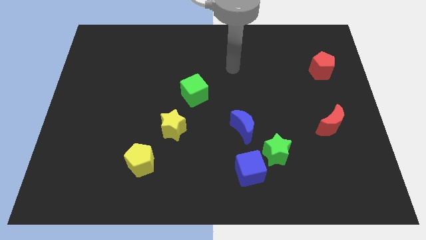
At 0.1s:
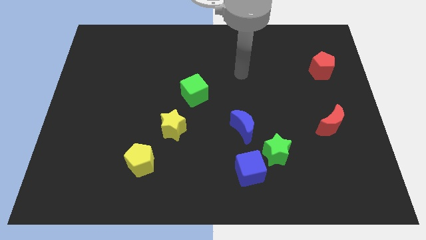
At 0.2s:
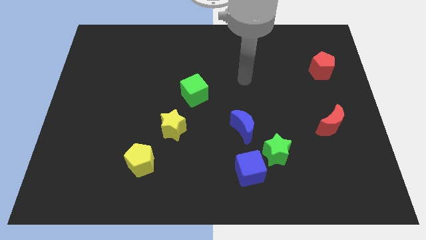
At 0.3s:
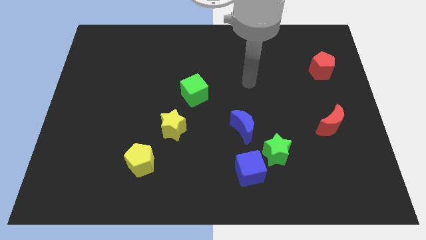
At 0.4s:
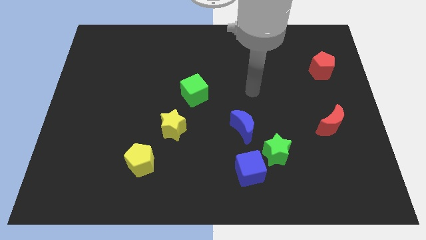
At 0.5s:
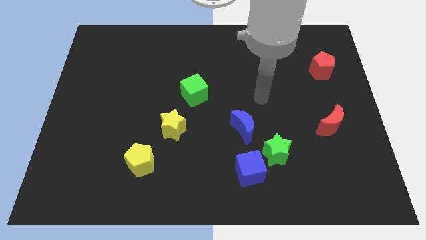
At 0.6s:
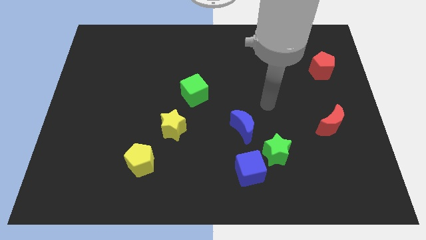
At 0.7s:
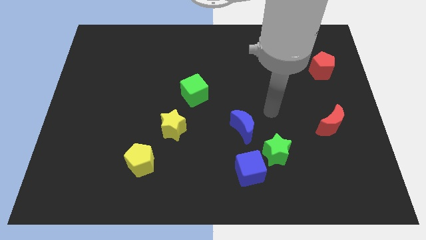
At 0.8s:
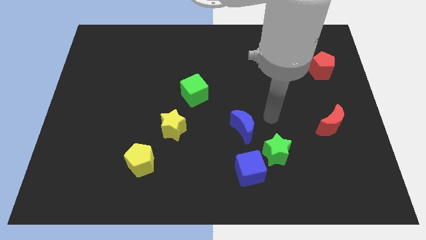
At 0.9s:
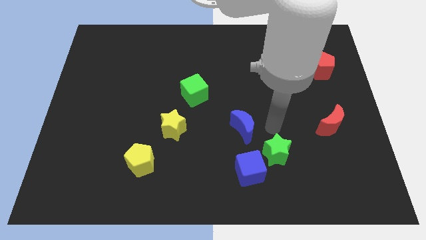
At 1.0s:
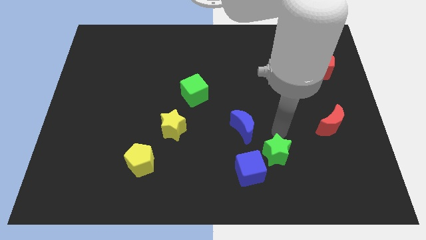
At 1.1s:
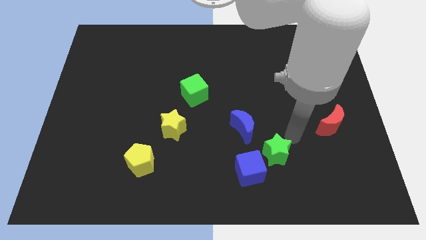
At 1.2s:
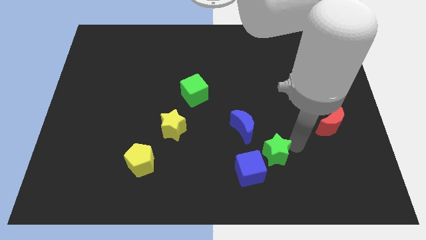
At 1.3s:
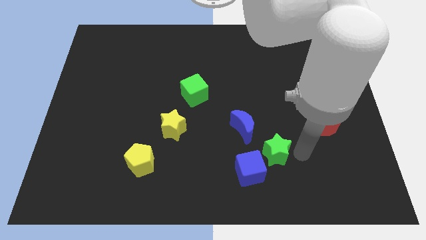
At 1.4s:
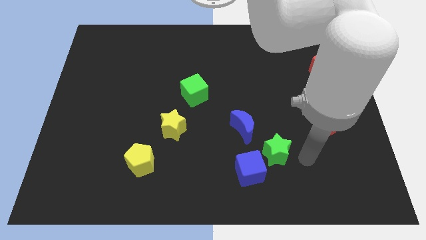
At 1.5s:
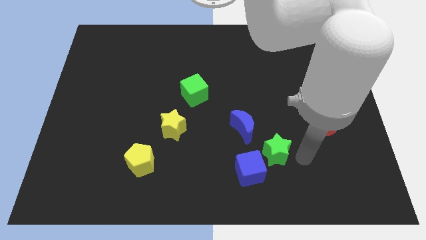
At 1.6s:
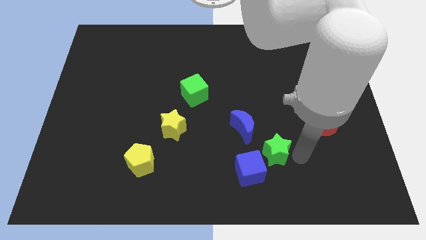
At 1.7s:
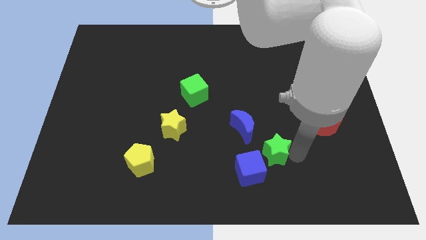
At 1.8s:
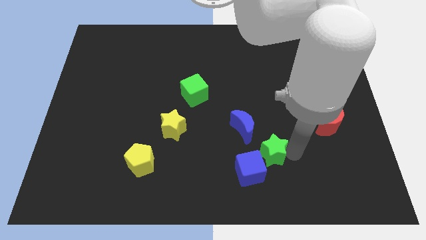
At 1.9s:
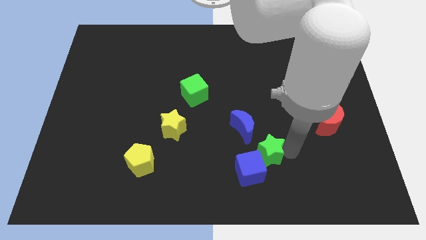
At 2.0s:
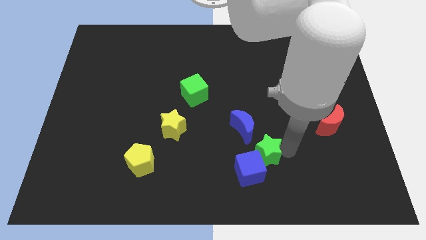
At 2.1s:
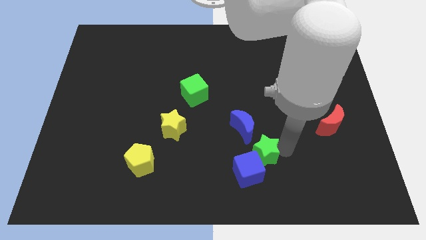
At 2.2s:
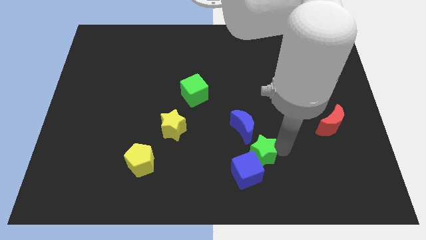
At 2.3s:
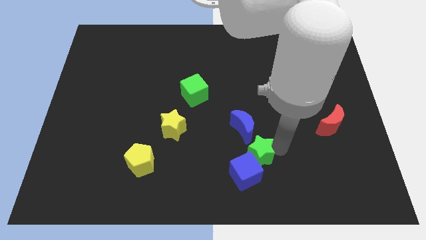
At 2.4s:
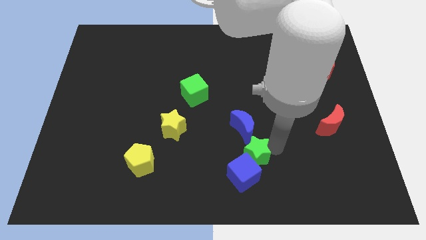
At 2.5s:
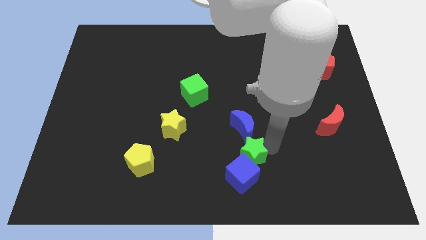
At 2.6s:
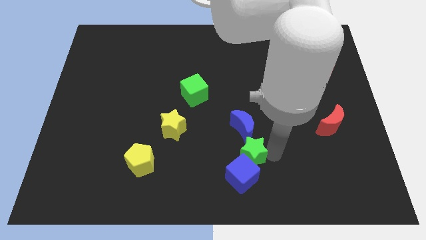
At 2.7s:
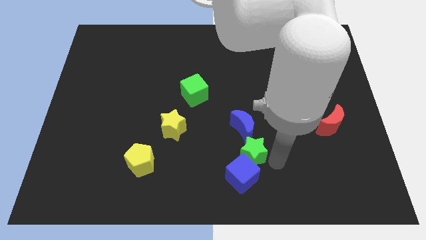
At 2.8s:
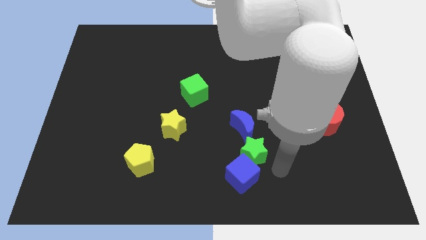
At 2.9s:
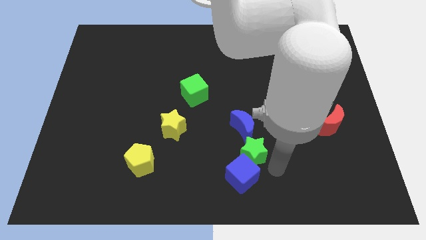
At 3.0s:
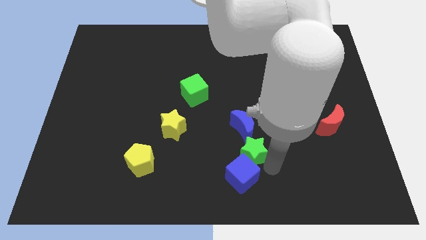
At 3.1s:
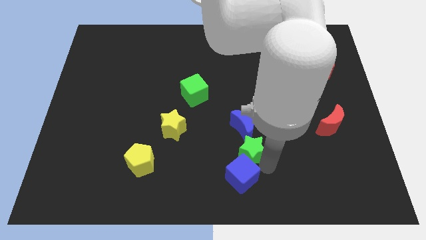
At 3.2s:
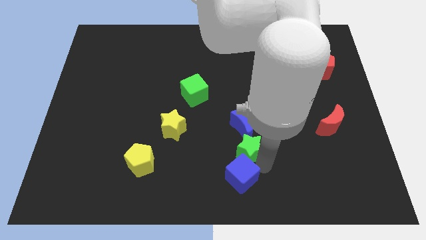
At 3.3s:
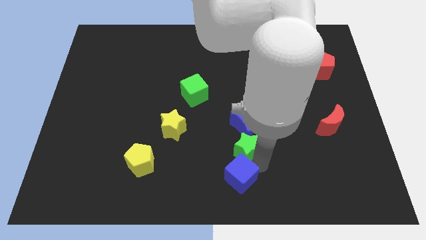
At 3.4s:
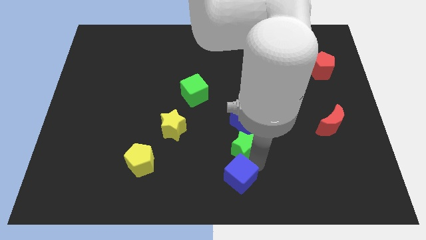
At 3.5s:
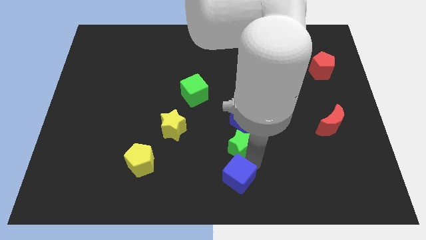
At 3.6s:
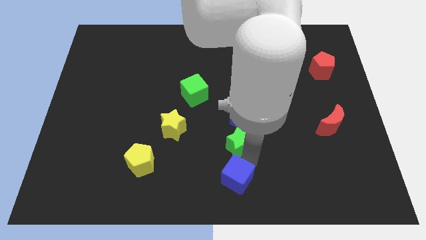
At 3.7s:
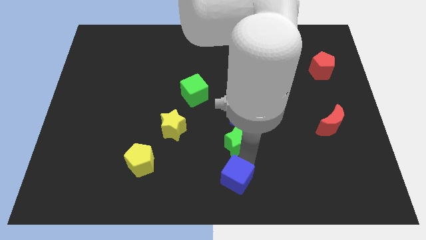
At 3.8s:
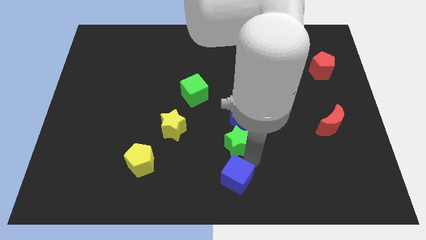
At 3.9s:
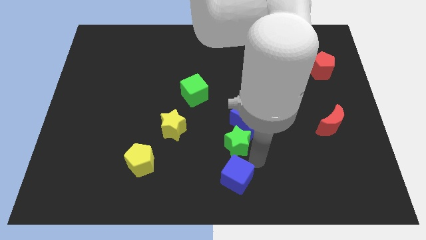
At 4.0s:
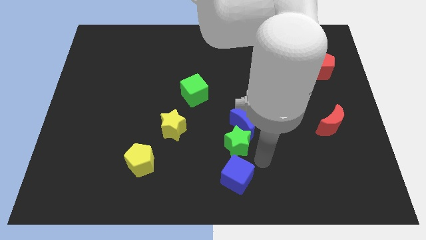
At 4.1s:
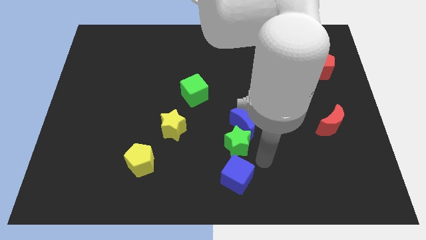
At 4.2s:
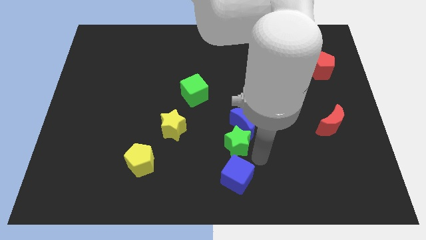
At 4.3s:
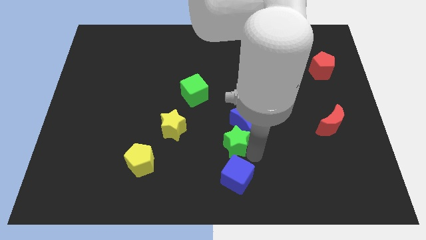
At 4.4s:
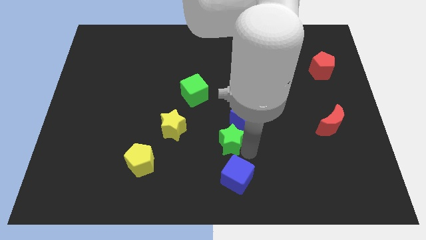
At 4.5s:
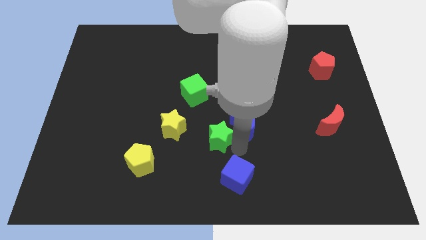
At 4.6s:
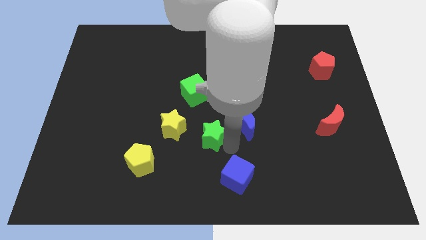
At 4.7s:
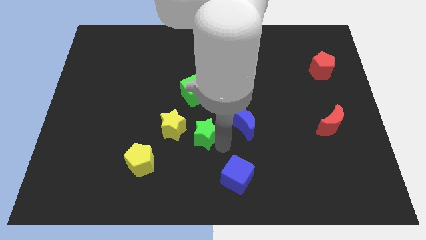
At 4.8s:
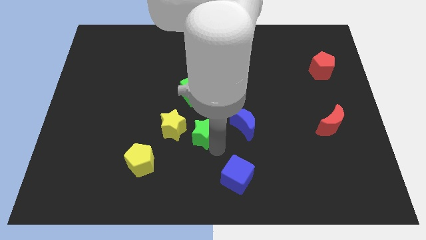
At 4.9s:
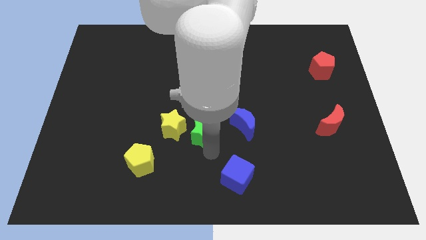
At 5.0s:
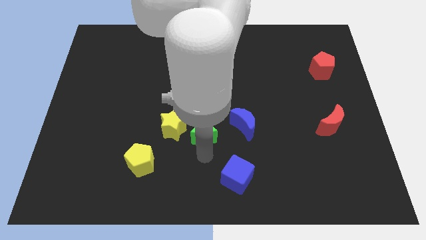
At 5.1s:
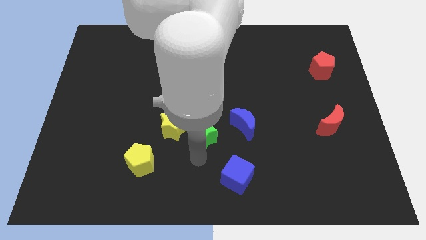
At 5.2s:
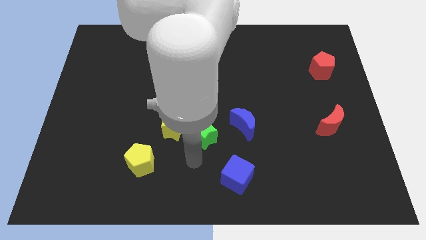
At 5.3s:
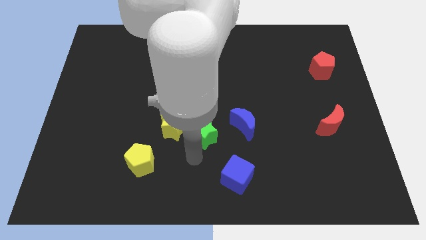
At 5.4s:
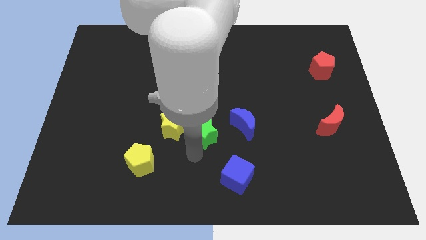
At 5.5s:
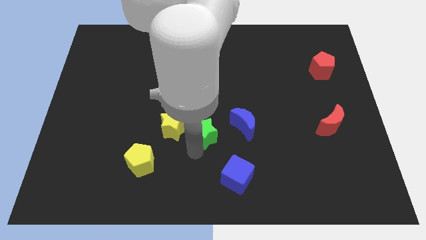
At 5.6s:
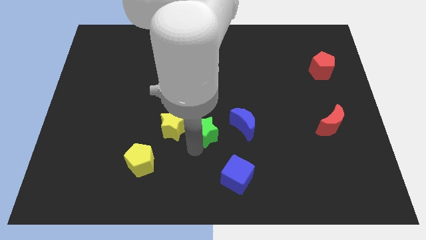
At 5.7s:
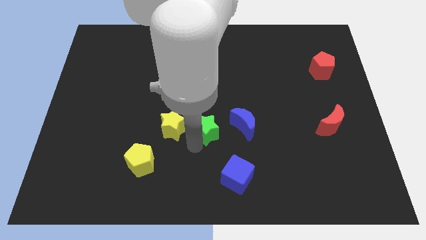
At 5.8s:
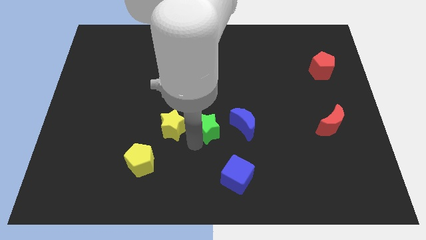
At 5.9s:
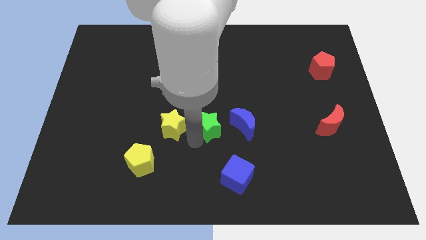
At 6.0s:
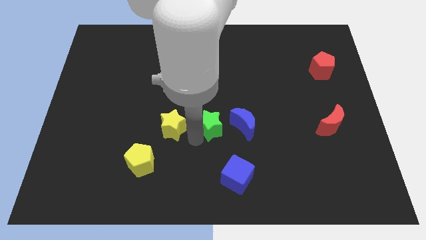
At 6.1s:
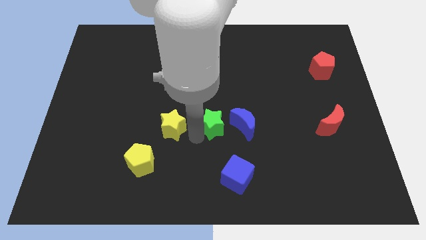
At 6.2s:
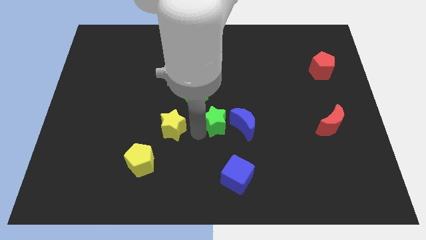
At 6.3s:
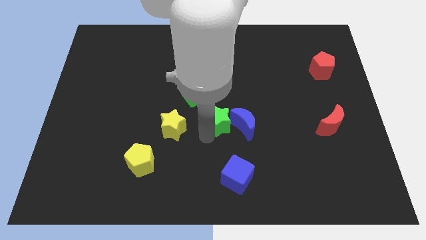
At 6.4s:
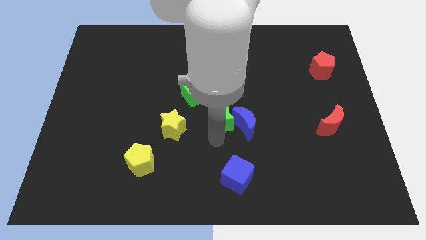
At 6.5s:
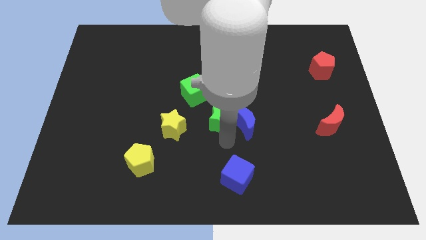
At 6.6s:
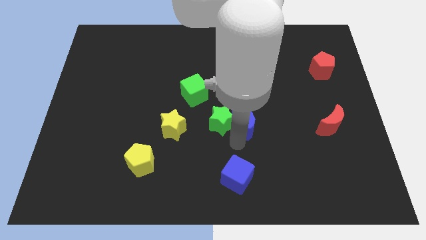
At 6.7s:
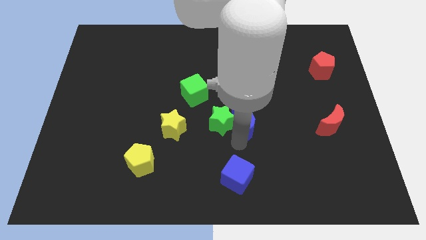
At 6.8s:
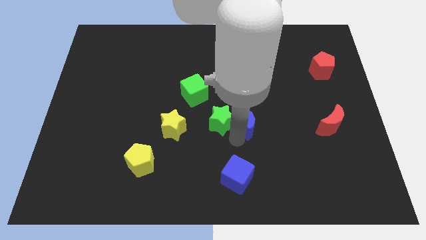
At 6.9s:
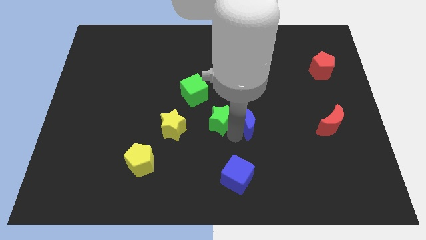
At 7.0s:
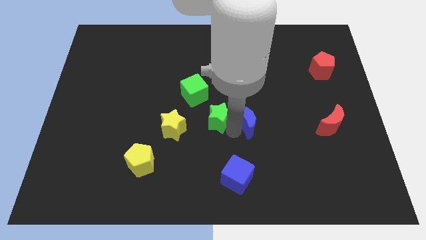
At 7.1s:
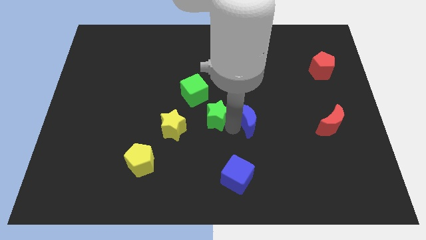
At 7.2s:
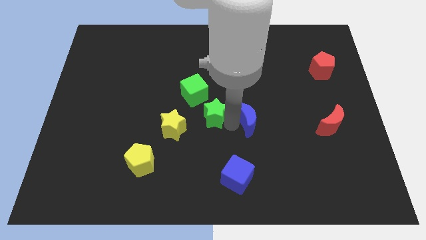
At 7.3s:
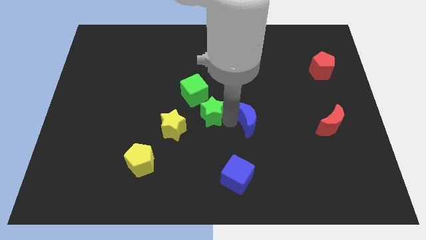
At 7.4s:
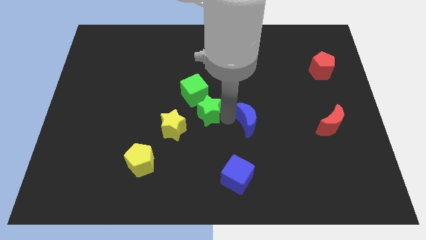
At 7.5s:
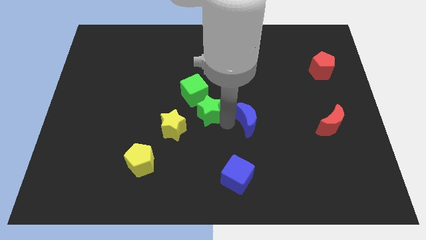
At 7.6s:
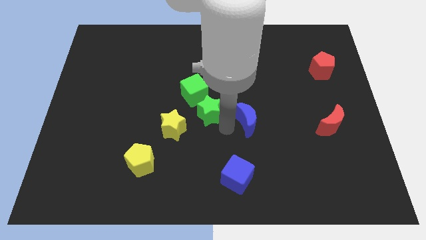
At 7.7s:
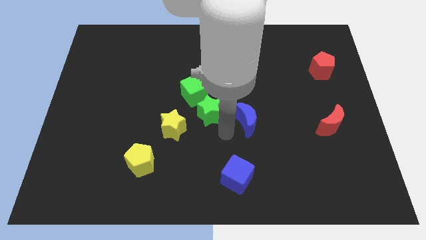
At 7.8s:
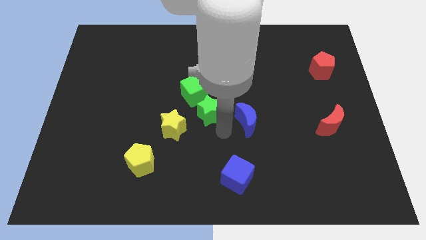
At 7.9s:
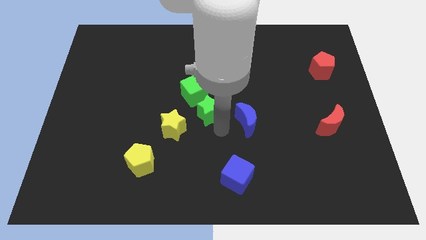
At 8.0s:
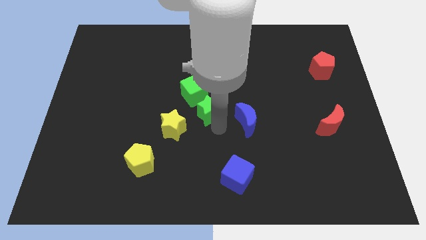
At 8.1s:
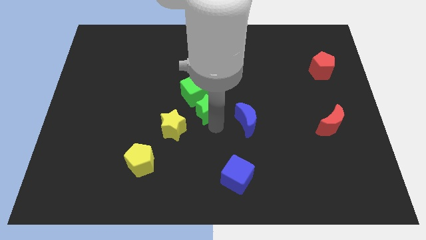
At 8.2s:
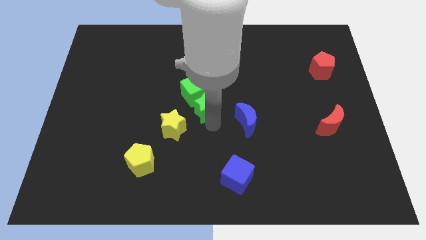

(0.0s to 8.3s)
push the green star close to the green cube
